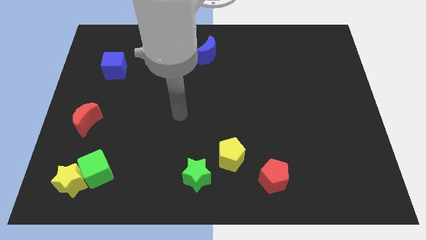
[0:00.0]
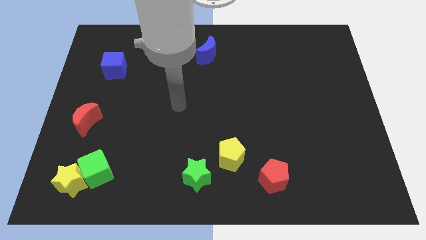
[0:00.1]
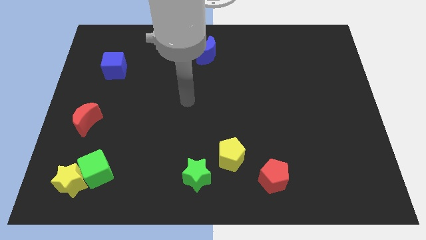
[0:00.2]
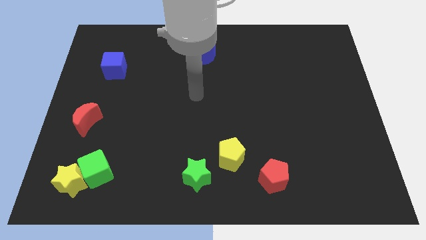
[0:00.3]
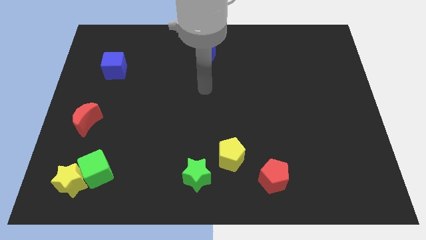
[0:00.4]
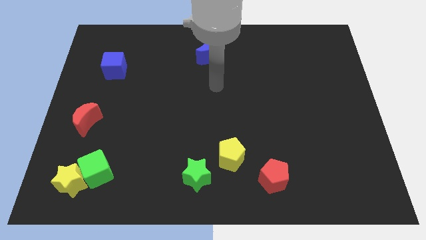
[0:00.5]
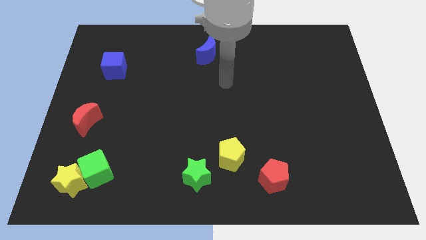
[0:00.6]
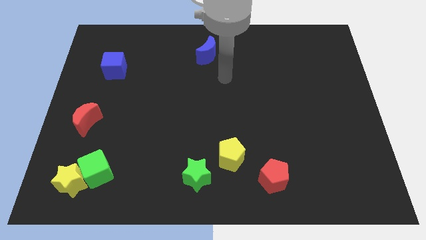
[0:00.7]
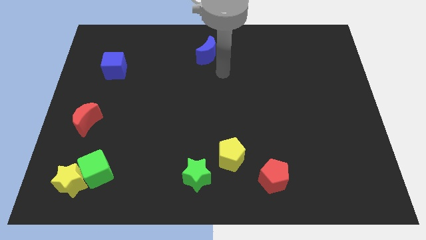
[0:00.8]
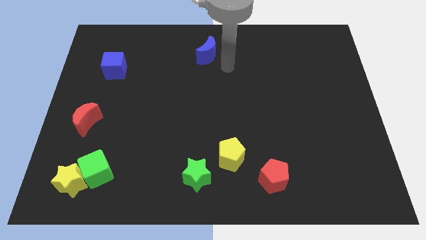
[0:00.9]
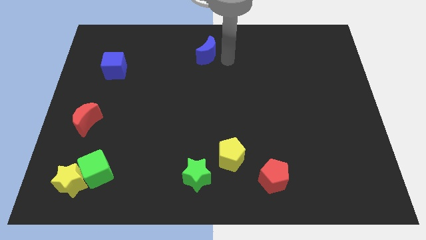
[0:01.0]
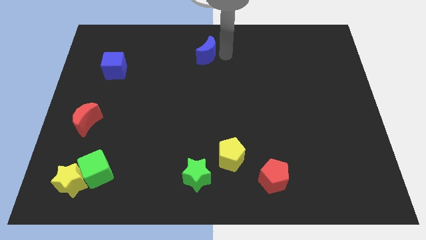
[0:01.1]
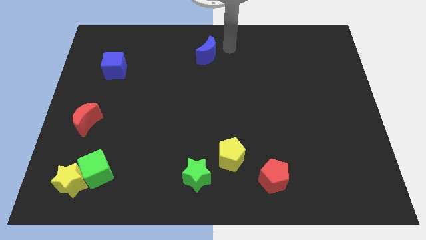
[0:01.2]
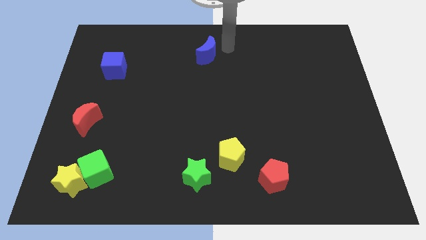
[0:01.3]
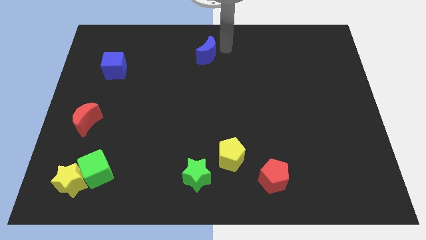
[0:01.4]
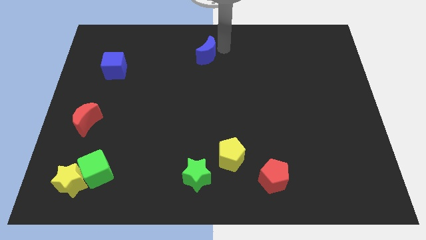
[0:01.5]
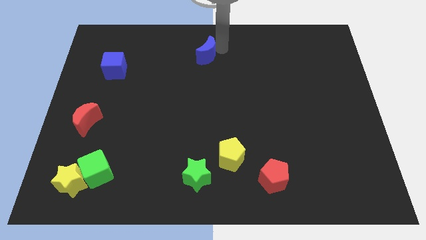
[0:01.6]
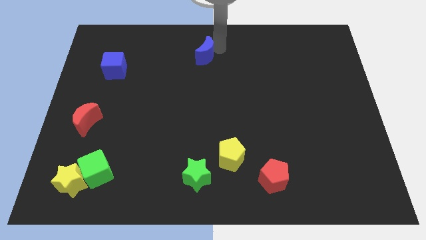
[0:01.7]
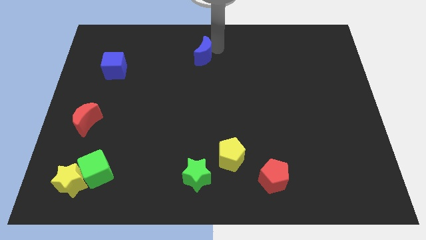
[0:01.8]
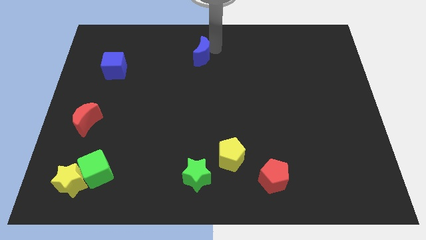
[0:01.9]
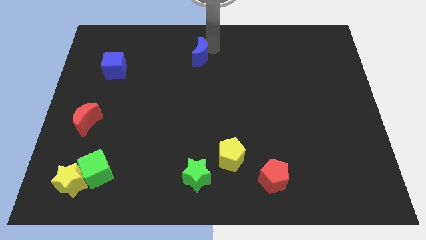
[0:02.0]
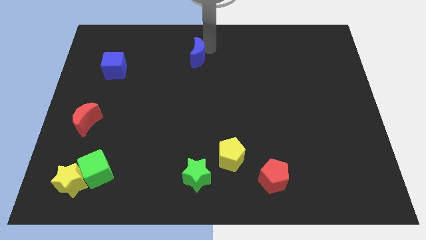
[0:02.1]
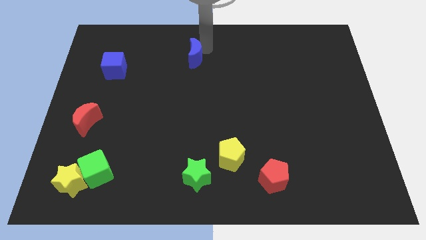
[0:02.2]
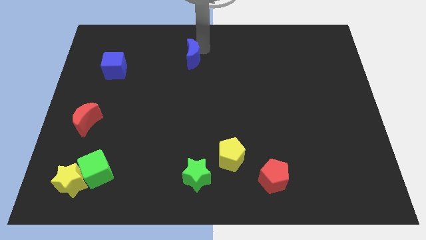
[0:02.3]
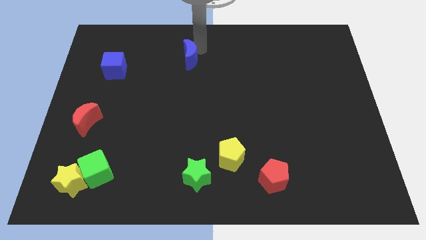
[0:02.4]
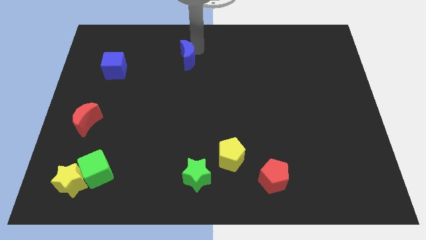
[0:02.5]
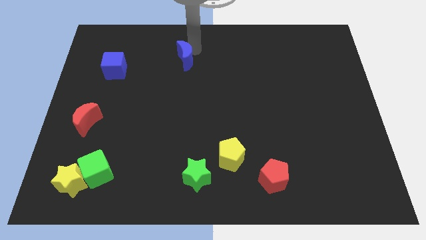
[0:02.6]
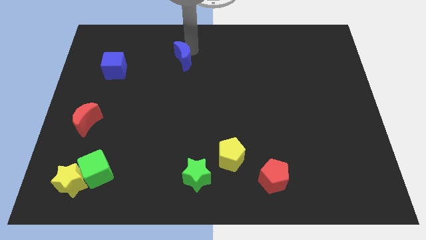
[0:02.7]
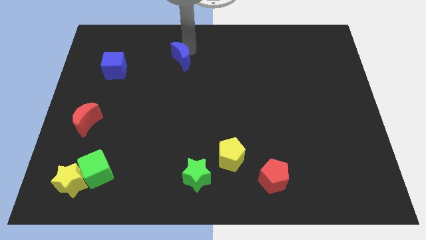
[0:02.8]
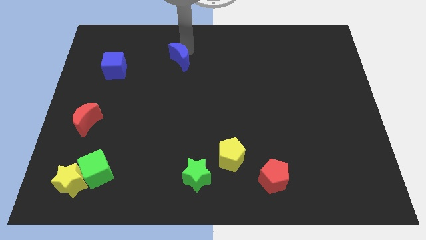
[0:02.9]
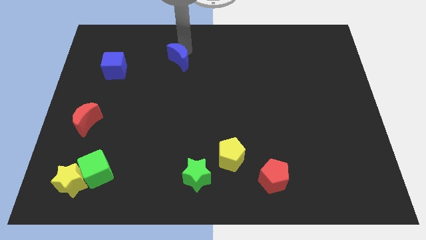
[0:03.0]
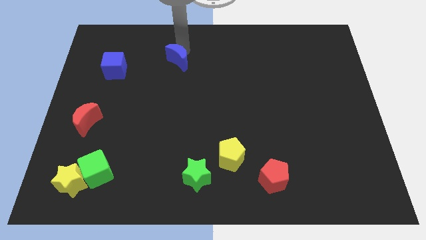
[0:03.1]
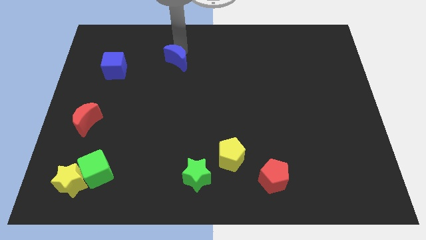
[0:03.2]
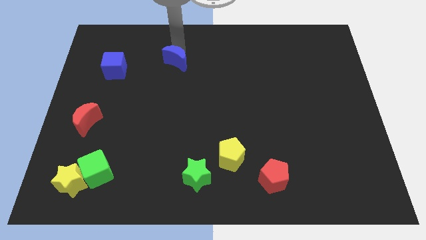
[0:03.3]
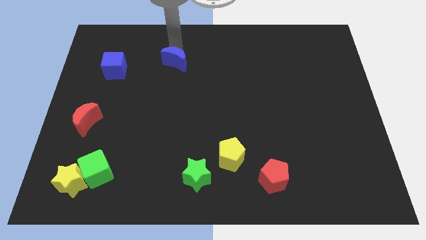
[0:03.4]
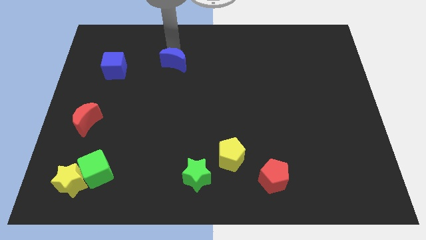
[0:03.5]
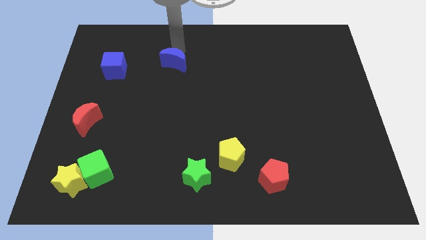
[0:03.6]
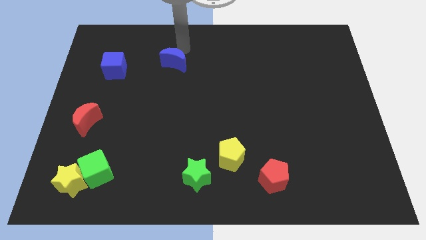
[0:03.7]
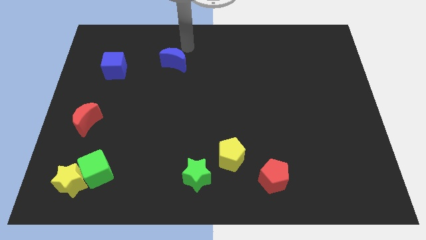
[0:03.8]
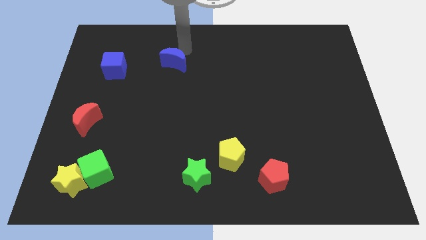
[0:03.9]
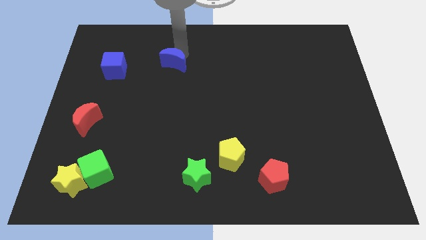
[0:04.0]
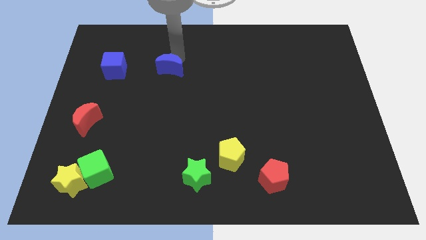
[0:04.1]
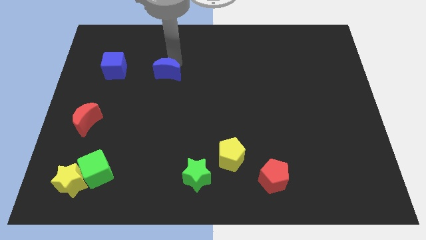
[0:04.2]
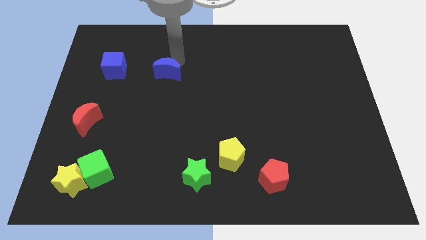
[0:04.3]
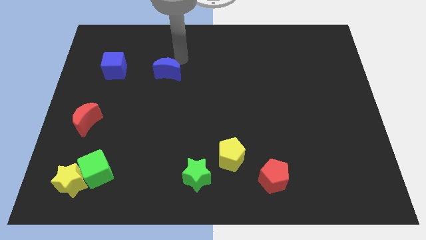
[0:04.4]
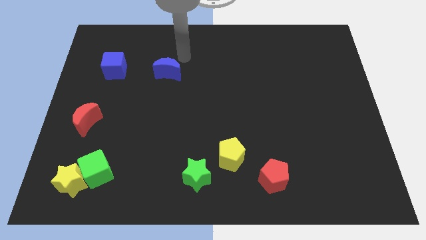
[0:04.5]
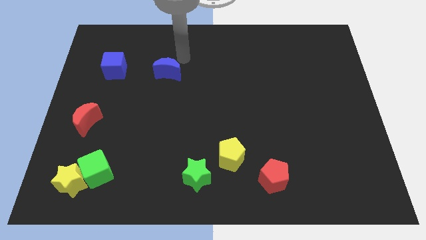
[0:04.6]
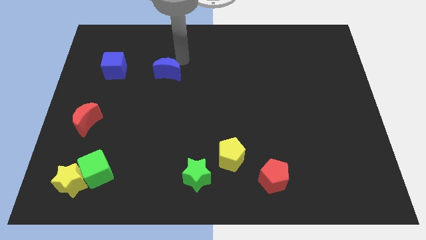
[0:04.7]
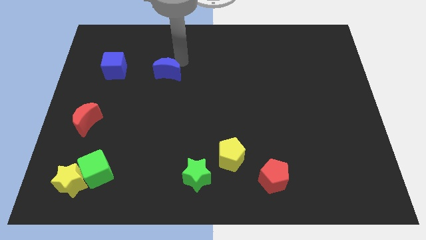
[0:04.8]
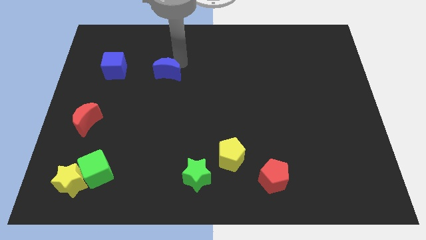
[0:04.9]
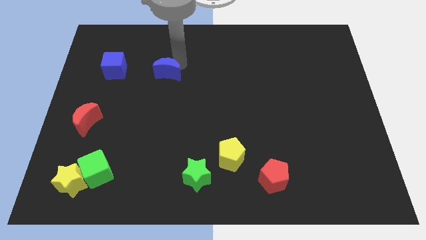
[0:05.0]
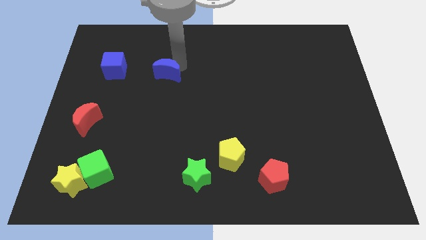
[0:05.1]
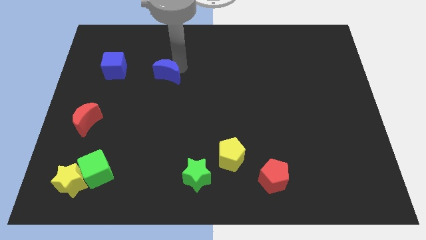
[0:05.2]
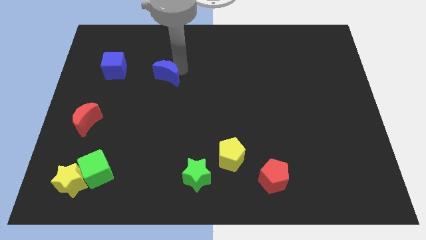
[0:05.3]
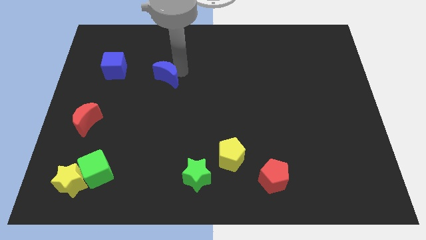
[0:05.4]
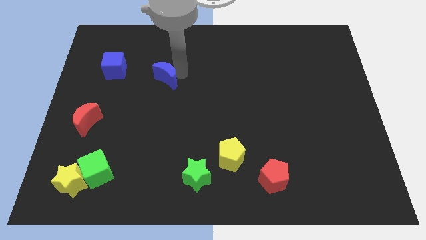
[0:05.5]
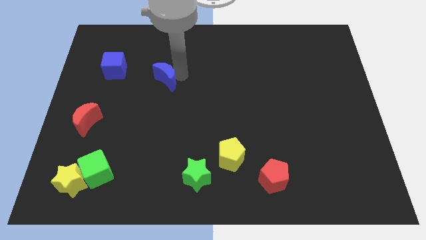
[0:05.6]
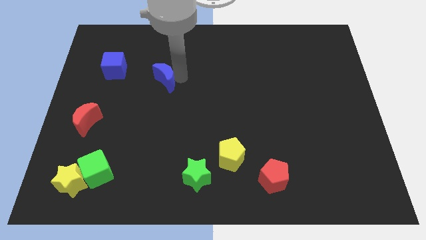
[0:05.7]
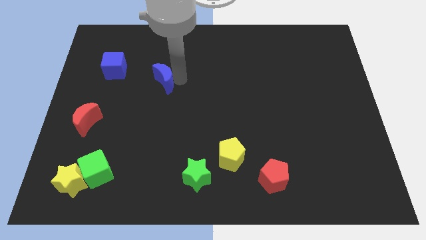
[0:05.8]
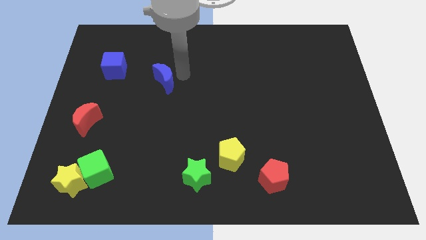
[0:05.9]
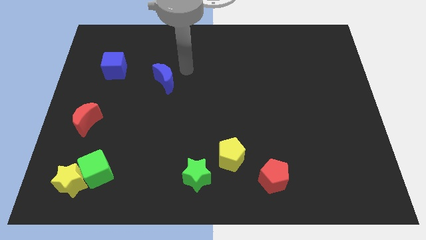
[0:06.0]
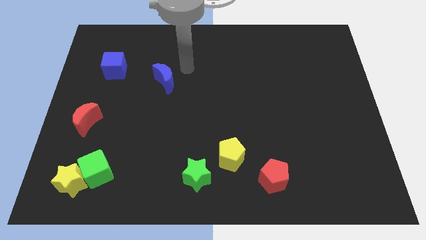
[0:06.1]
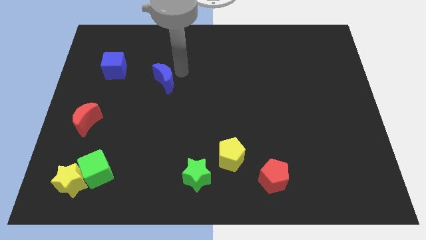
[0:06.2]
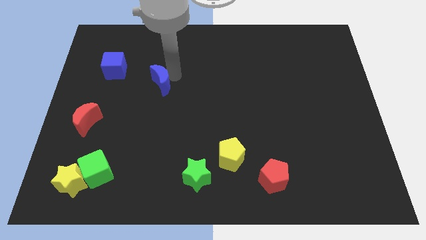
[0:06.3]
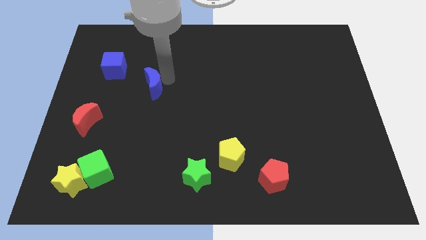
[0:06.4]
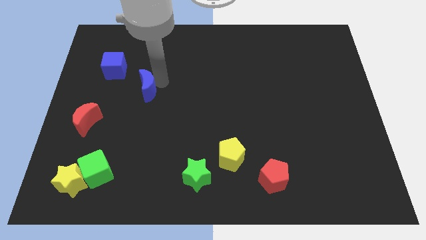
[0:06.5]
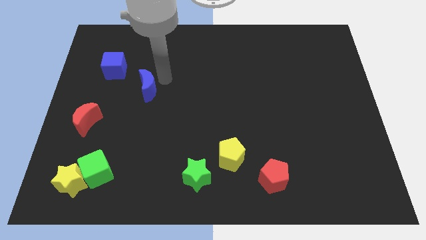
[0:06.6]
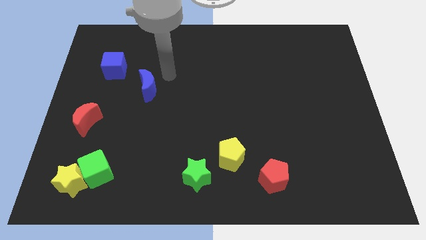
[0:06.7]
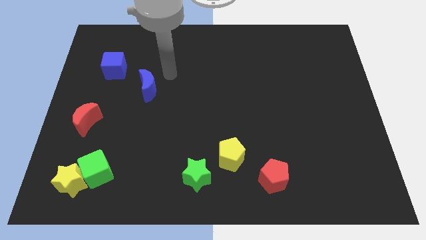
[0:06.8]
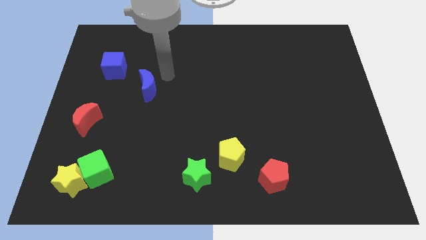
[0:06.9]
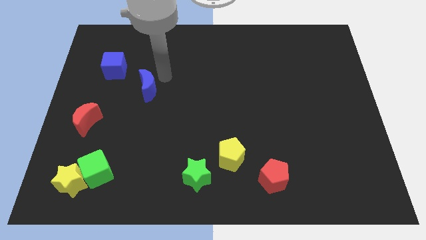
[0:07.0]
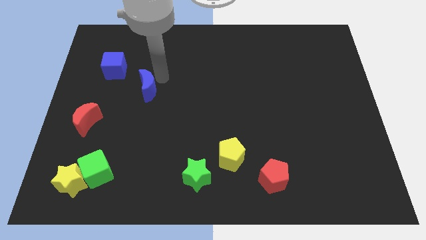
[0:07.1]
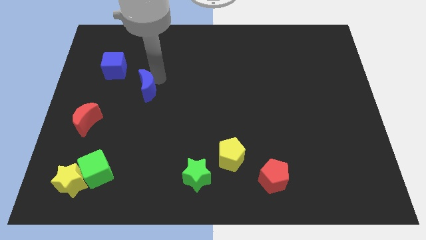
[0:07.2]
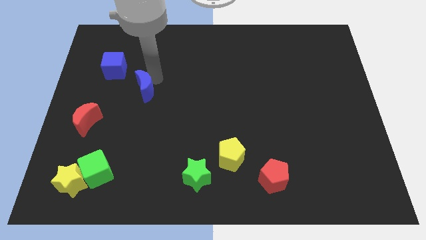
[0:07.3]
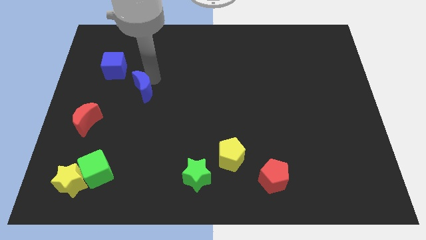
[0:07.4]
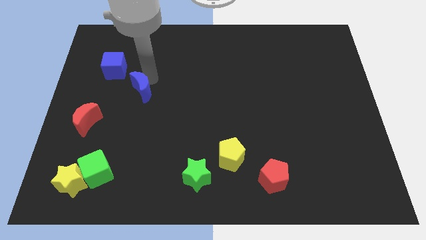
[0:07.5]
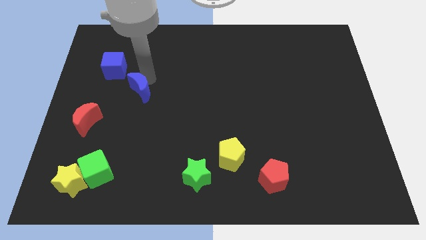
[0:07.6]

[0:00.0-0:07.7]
slide the blue moon down and then left

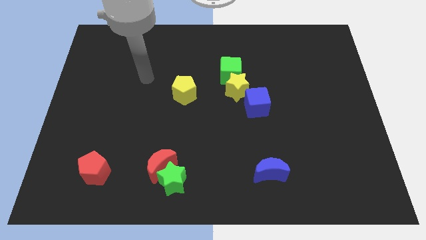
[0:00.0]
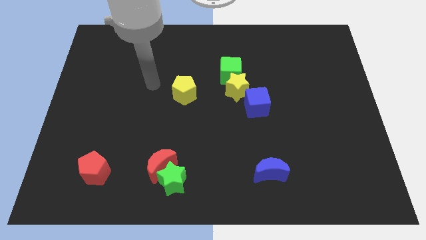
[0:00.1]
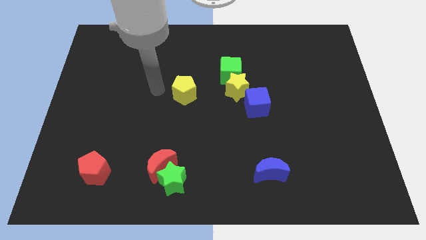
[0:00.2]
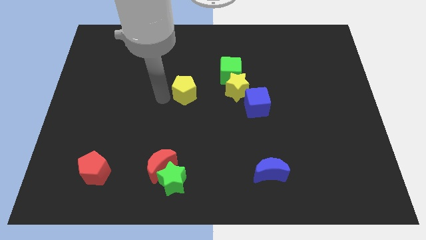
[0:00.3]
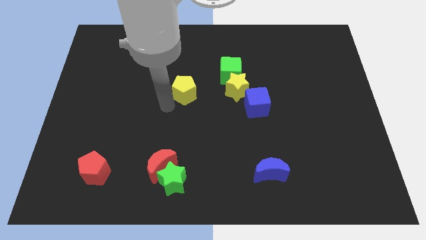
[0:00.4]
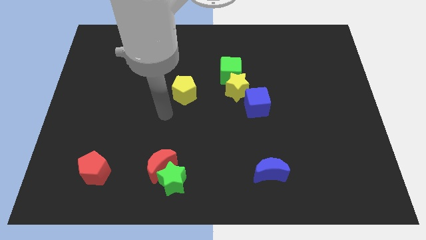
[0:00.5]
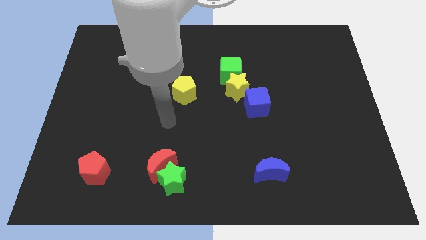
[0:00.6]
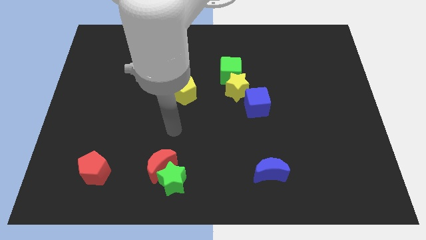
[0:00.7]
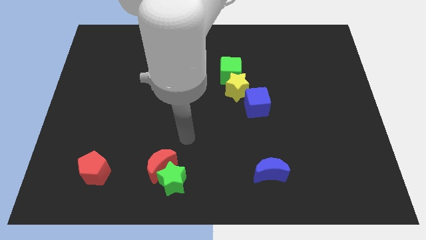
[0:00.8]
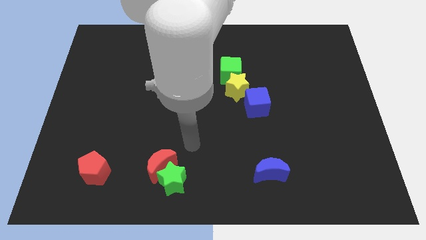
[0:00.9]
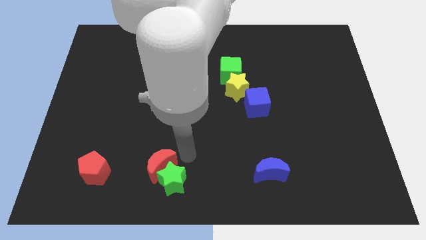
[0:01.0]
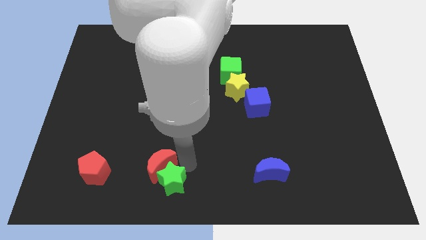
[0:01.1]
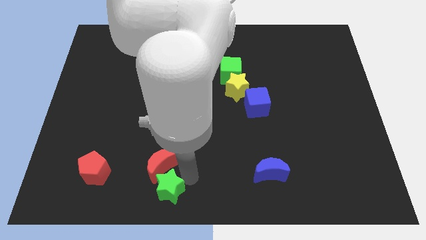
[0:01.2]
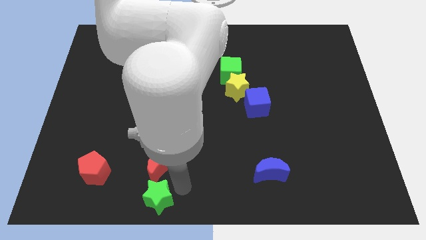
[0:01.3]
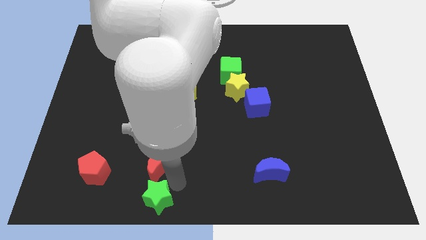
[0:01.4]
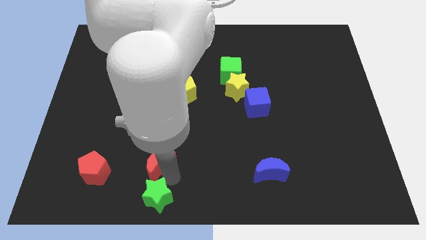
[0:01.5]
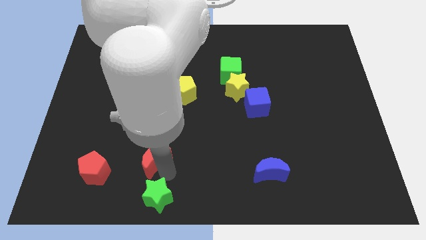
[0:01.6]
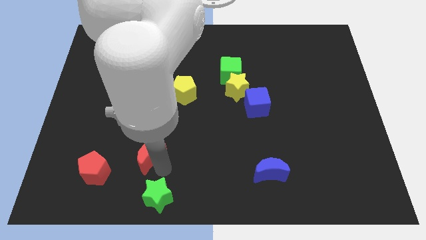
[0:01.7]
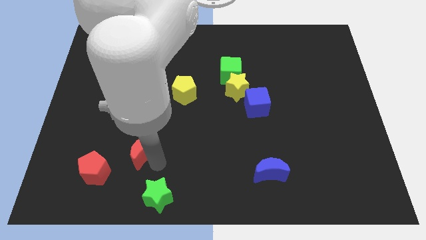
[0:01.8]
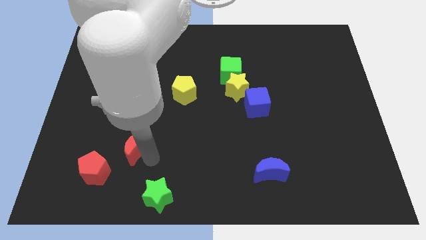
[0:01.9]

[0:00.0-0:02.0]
slightly slide the red moon diagonally upwards and left
